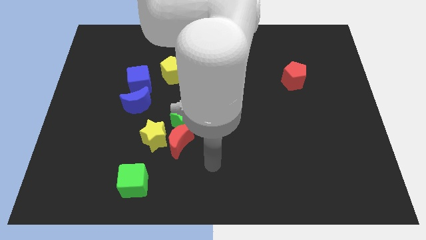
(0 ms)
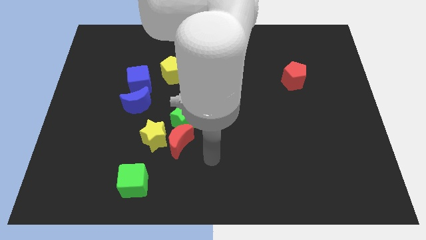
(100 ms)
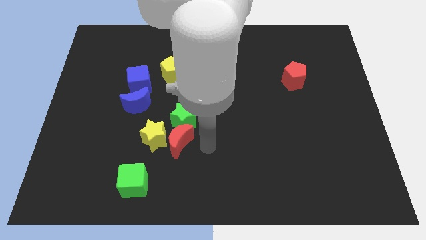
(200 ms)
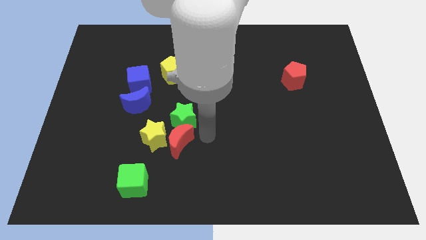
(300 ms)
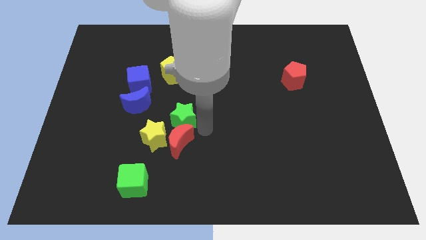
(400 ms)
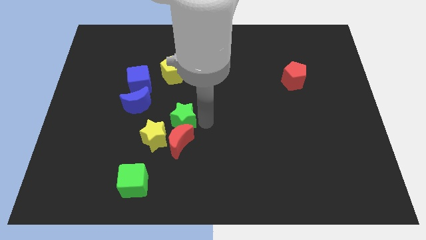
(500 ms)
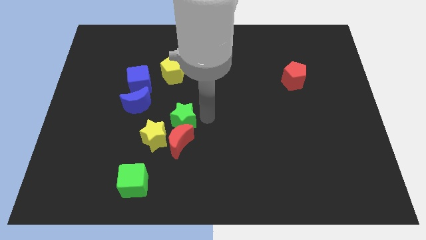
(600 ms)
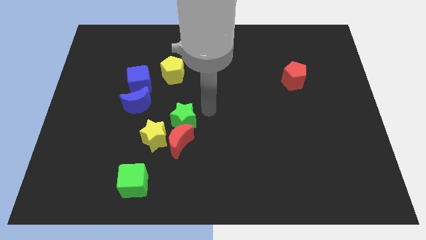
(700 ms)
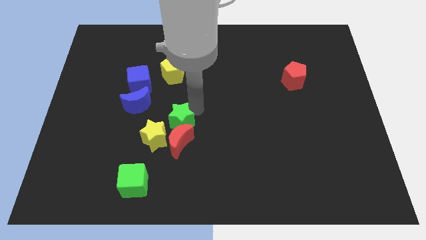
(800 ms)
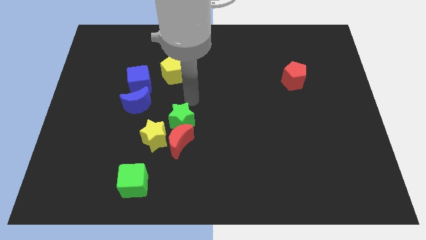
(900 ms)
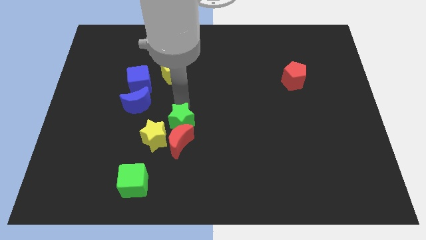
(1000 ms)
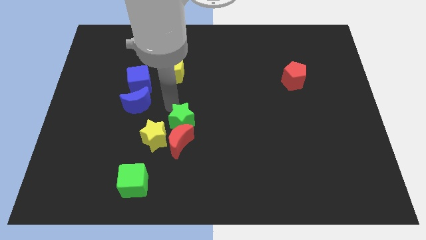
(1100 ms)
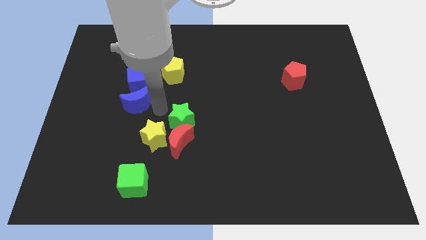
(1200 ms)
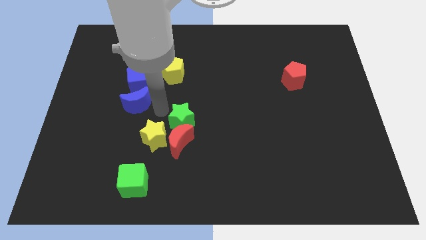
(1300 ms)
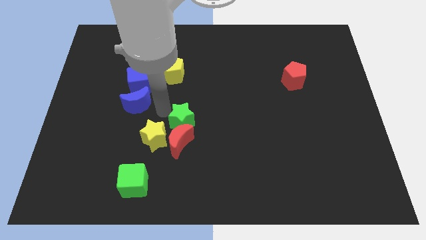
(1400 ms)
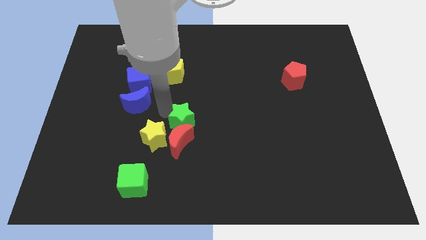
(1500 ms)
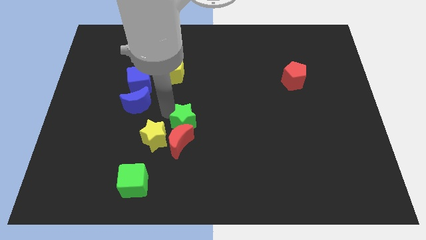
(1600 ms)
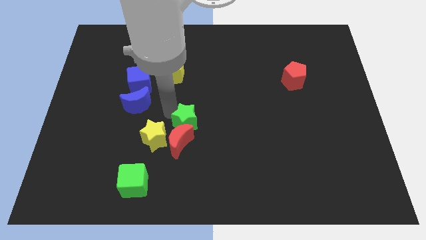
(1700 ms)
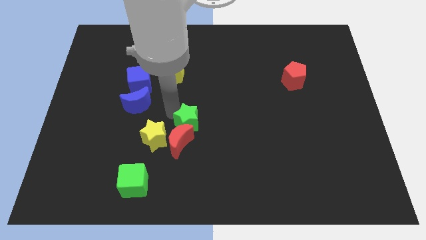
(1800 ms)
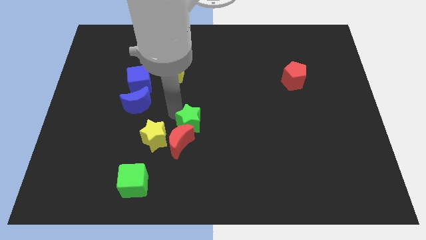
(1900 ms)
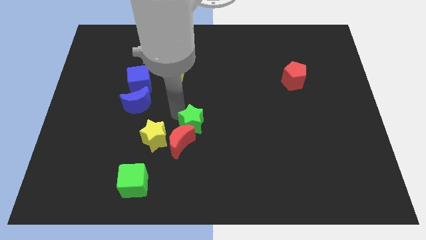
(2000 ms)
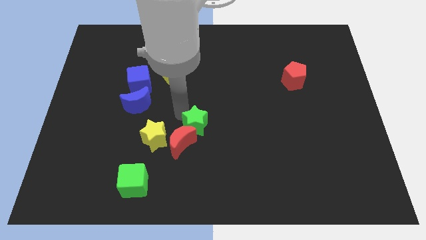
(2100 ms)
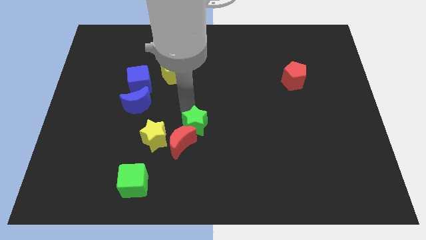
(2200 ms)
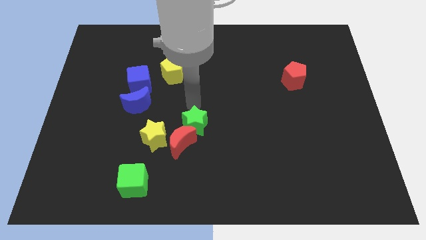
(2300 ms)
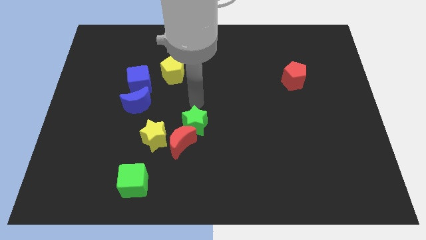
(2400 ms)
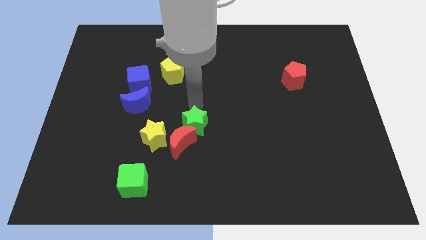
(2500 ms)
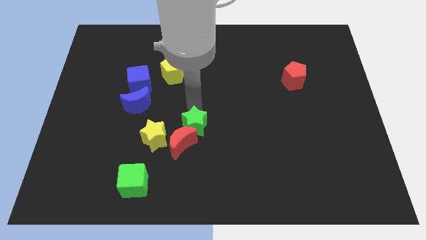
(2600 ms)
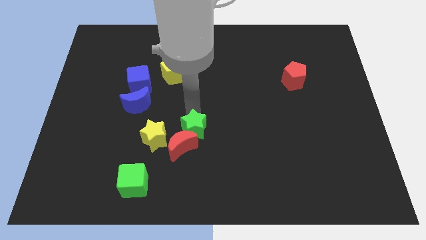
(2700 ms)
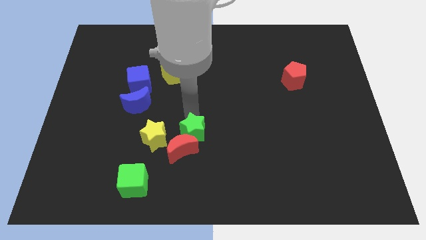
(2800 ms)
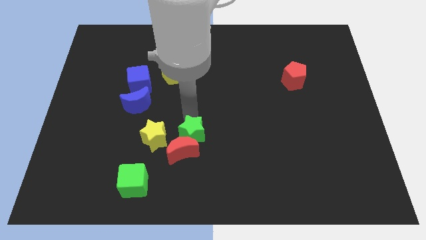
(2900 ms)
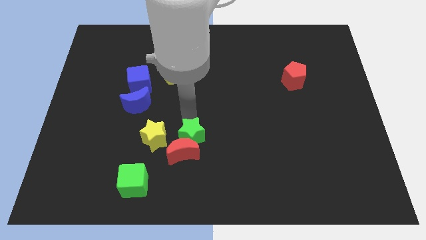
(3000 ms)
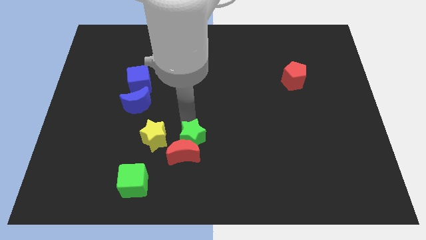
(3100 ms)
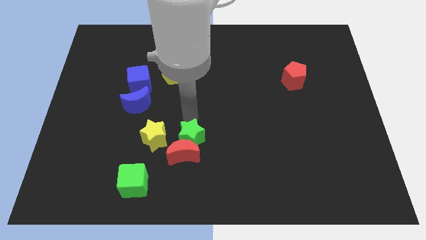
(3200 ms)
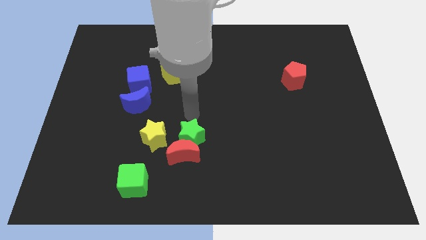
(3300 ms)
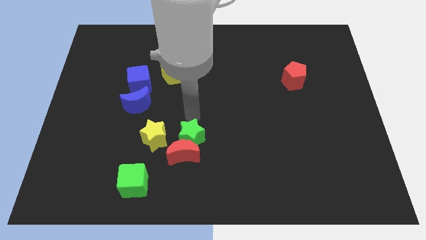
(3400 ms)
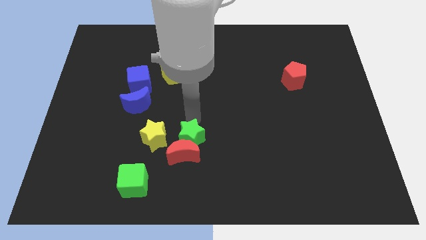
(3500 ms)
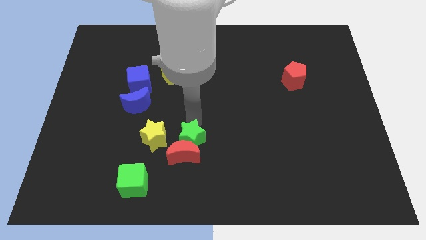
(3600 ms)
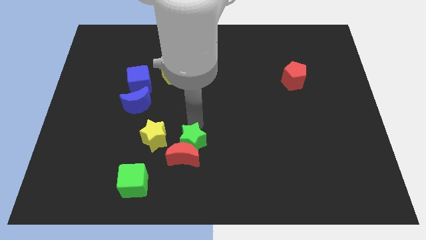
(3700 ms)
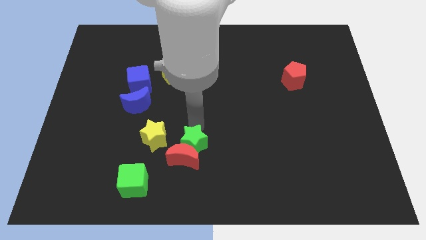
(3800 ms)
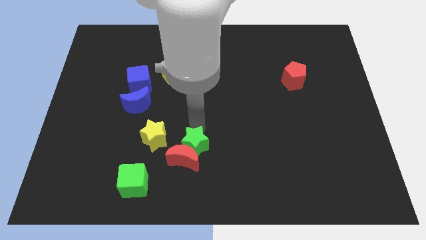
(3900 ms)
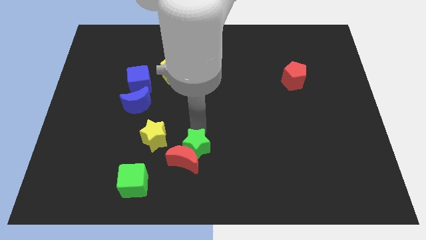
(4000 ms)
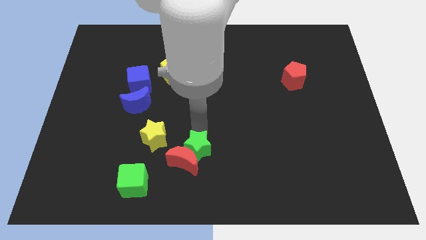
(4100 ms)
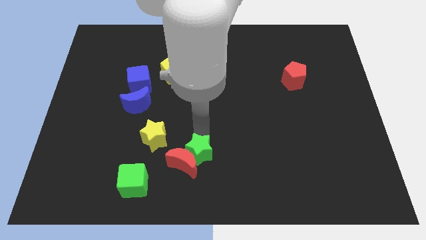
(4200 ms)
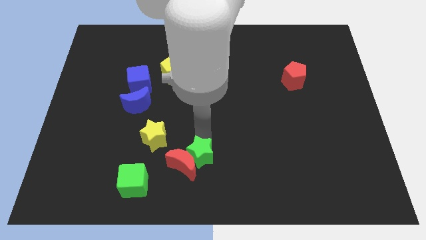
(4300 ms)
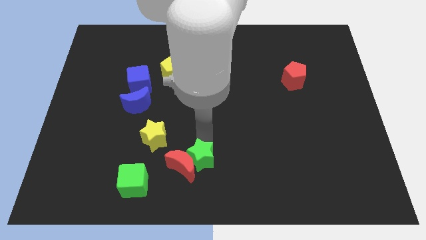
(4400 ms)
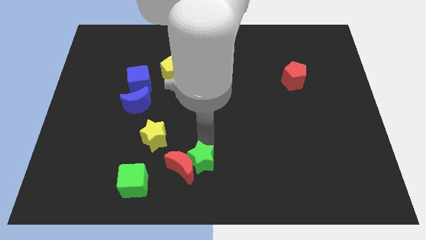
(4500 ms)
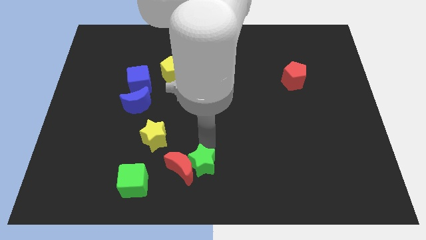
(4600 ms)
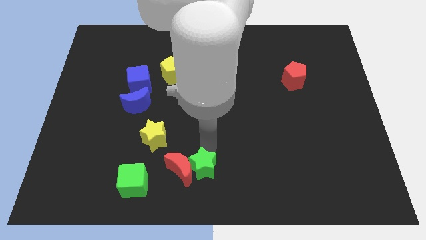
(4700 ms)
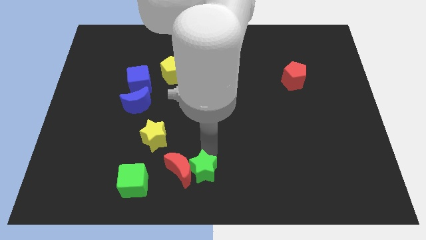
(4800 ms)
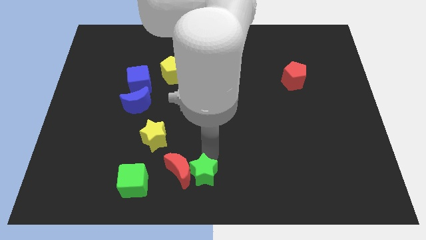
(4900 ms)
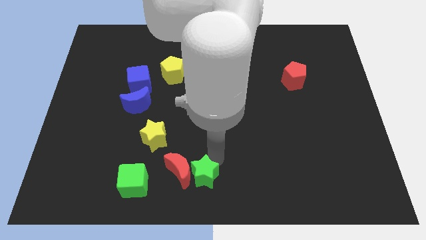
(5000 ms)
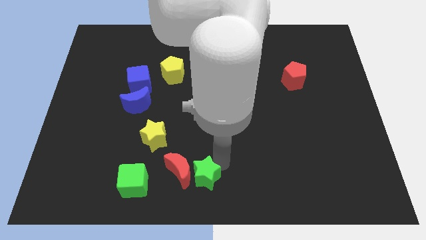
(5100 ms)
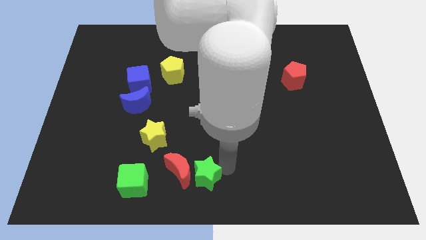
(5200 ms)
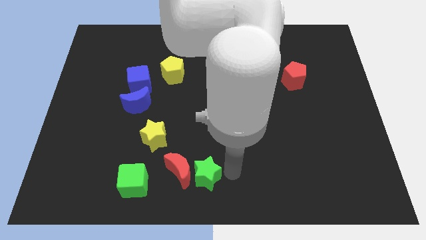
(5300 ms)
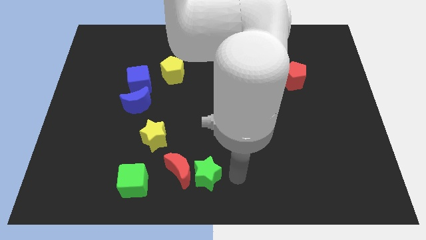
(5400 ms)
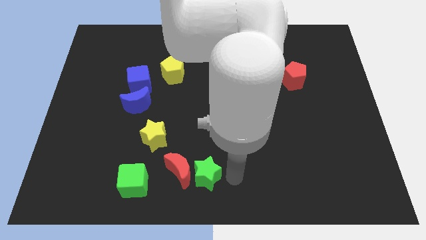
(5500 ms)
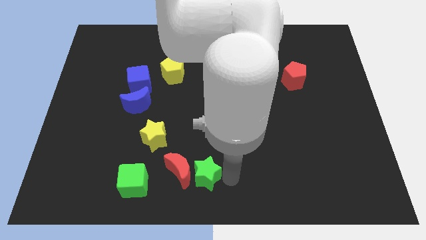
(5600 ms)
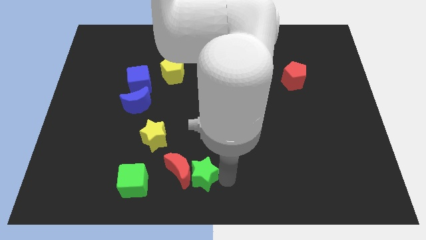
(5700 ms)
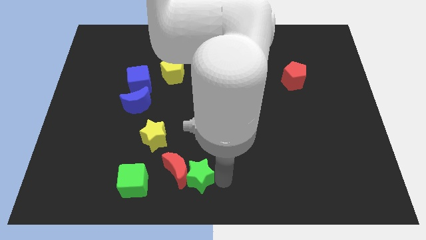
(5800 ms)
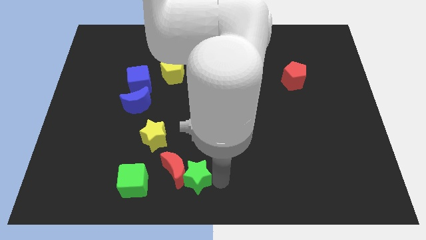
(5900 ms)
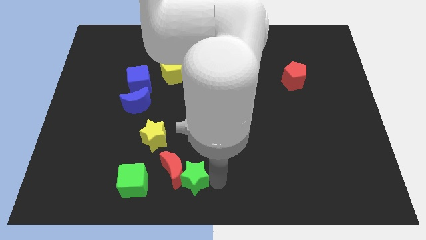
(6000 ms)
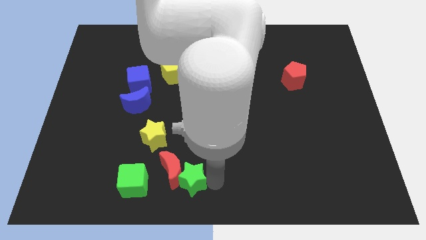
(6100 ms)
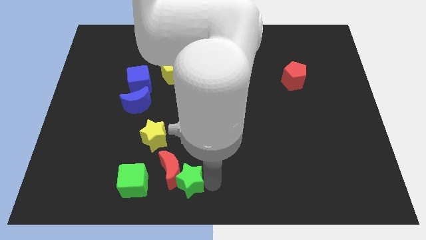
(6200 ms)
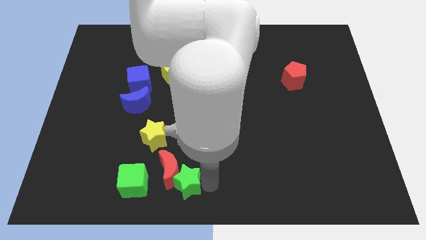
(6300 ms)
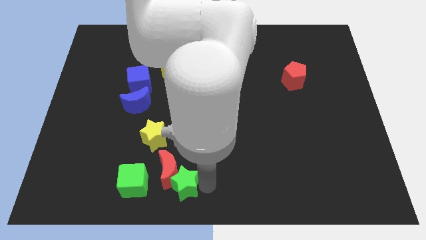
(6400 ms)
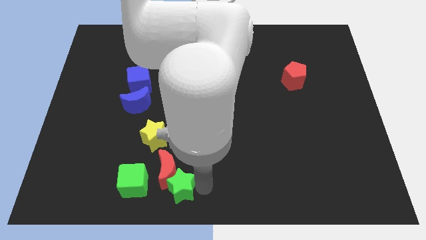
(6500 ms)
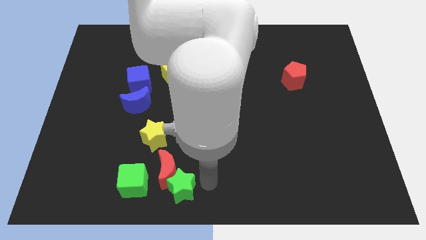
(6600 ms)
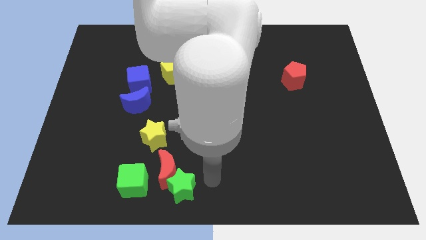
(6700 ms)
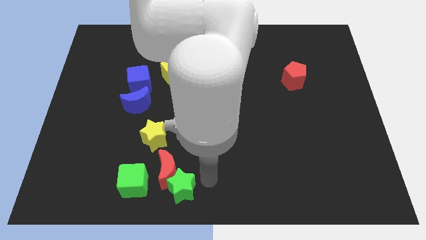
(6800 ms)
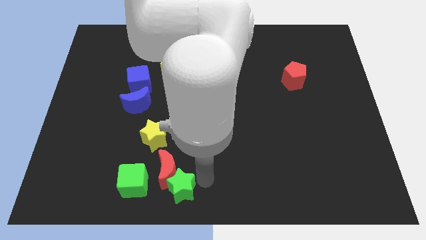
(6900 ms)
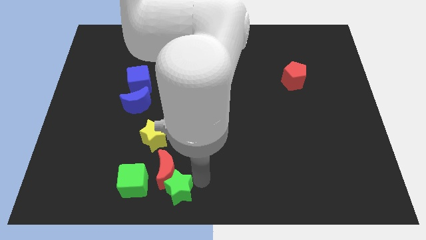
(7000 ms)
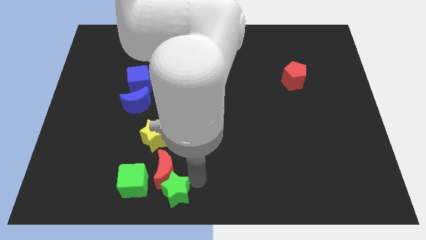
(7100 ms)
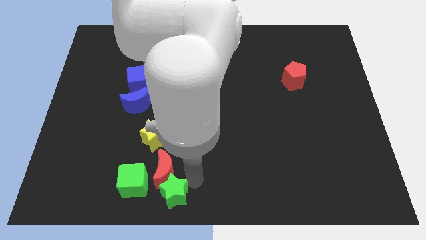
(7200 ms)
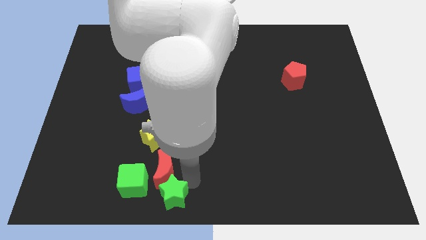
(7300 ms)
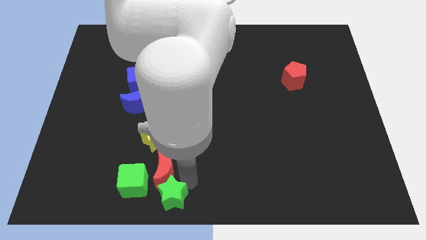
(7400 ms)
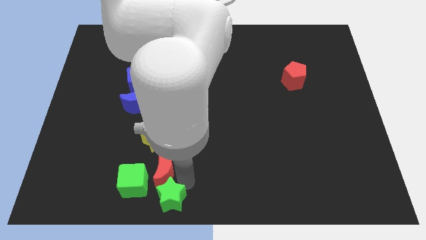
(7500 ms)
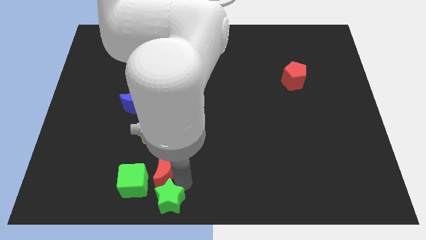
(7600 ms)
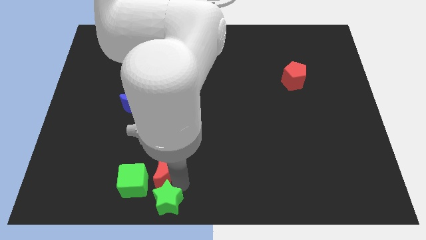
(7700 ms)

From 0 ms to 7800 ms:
move the green star to the bottom side of the yellow star
